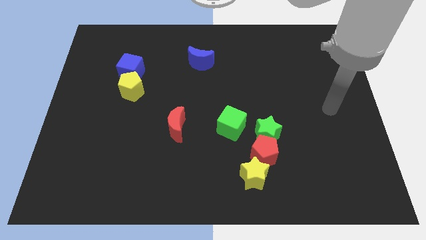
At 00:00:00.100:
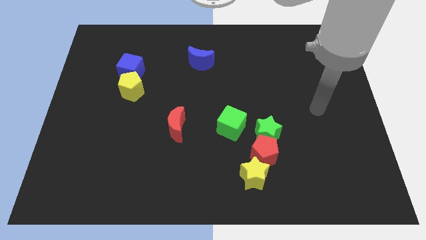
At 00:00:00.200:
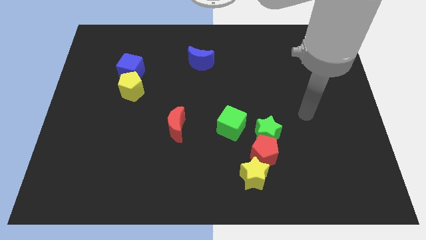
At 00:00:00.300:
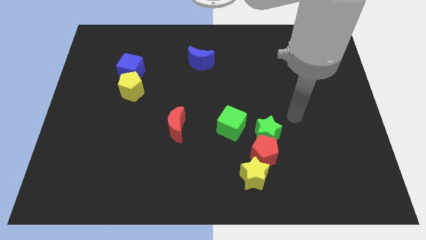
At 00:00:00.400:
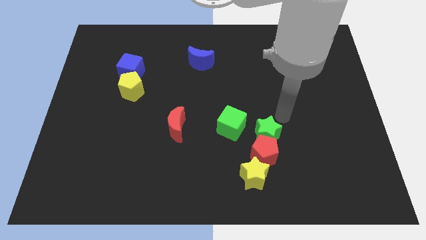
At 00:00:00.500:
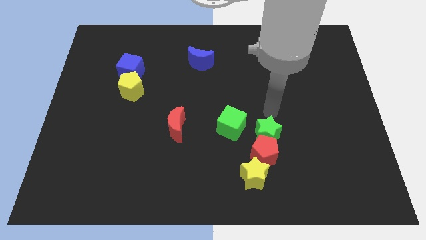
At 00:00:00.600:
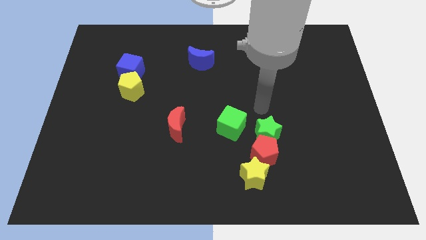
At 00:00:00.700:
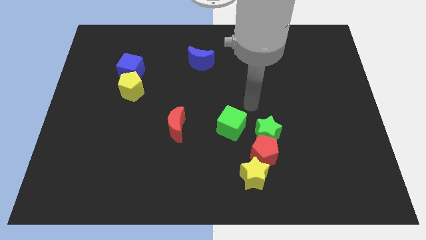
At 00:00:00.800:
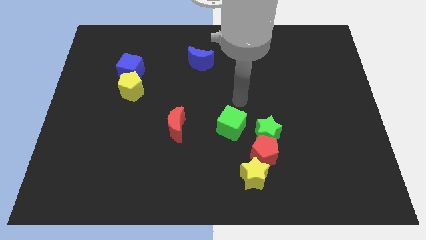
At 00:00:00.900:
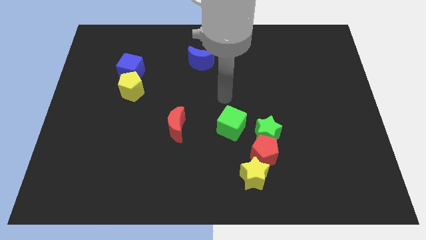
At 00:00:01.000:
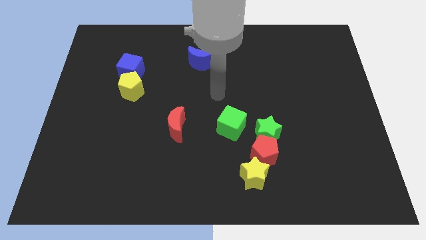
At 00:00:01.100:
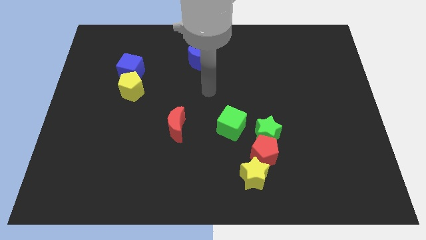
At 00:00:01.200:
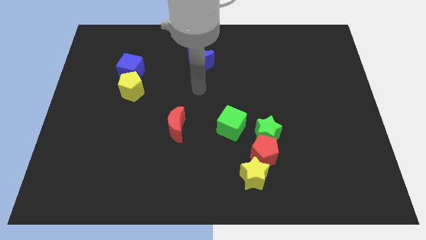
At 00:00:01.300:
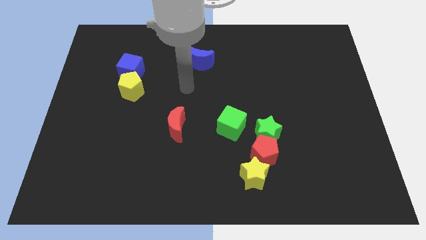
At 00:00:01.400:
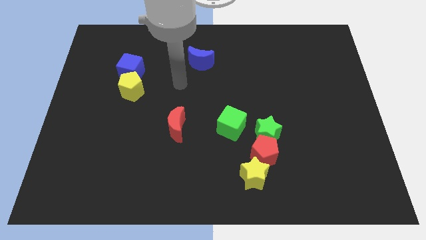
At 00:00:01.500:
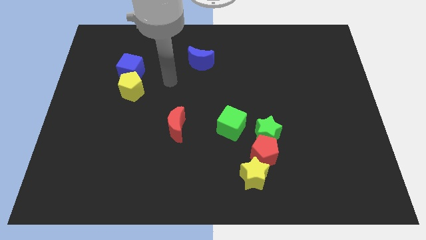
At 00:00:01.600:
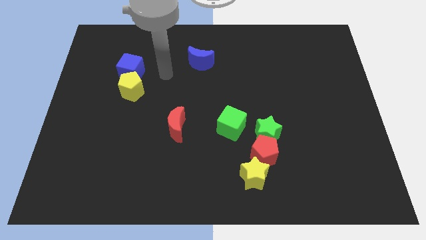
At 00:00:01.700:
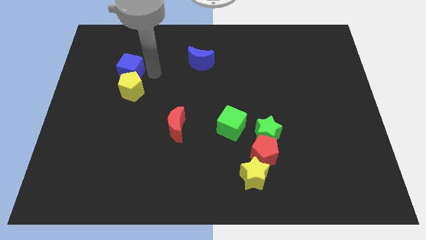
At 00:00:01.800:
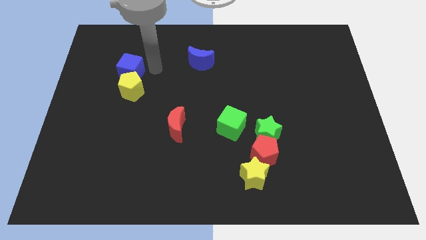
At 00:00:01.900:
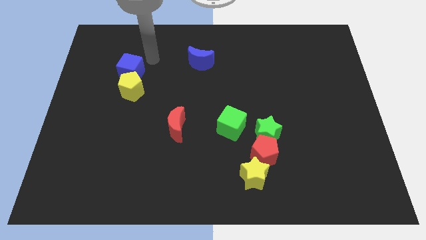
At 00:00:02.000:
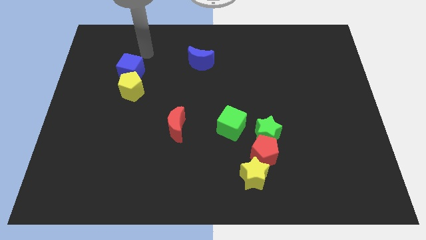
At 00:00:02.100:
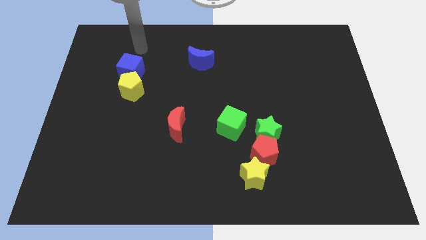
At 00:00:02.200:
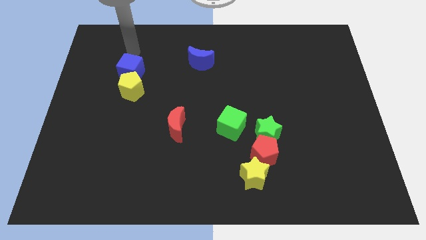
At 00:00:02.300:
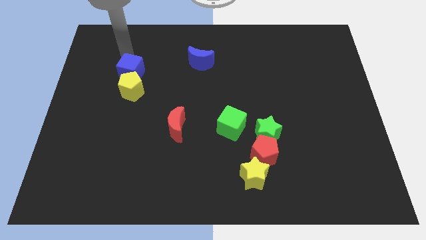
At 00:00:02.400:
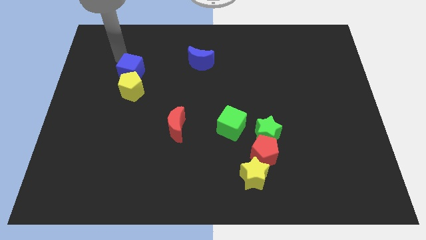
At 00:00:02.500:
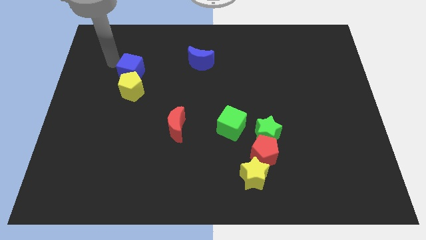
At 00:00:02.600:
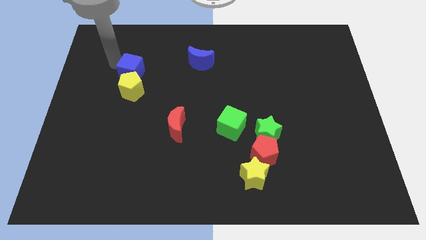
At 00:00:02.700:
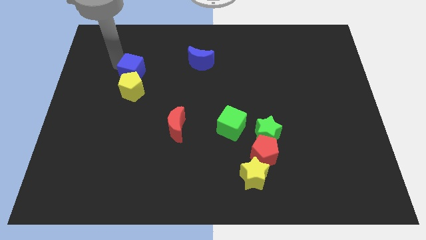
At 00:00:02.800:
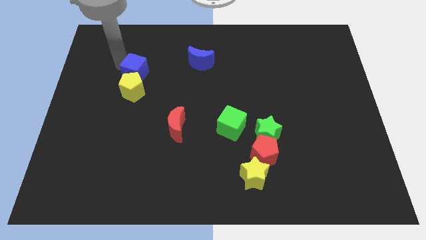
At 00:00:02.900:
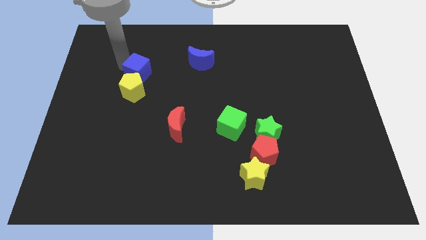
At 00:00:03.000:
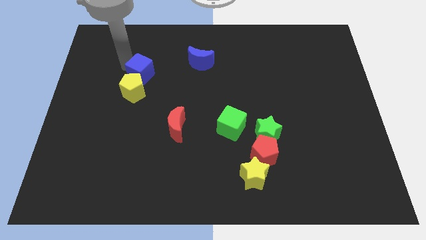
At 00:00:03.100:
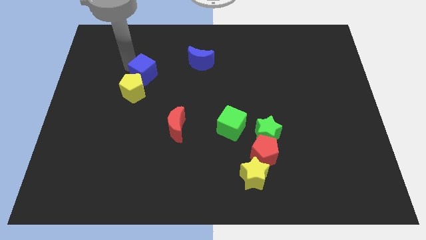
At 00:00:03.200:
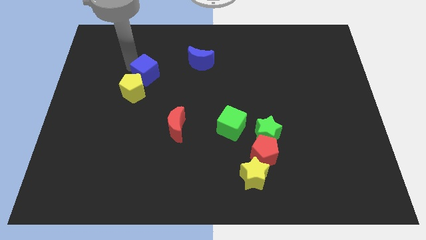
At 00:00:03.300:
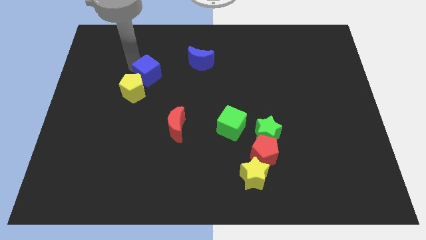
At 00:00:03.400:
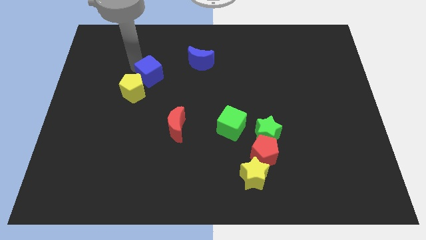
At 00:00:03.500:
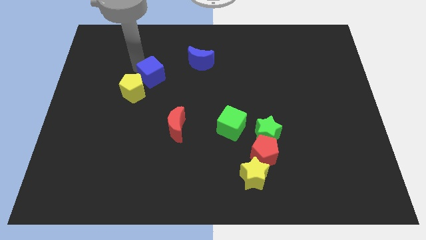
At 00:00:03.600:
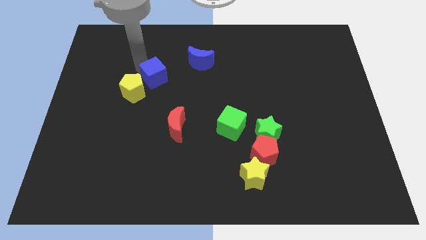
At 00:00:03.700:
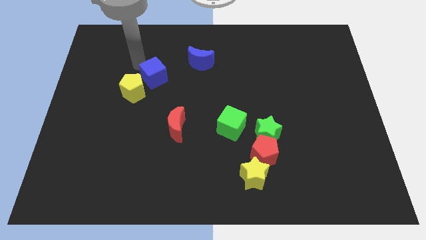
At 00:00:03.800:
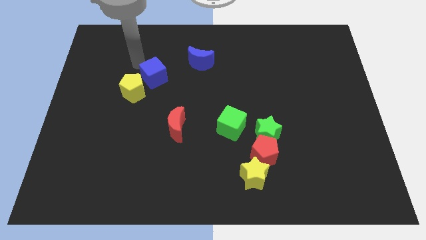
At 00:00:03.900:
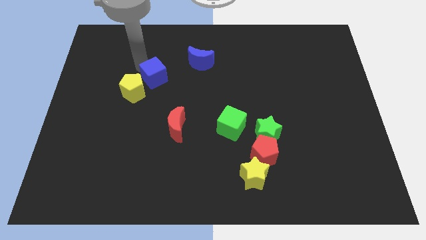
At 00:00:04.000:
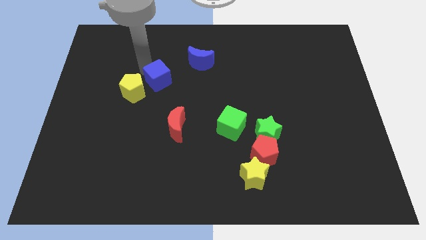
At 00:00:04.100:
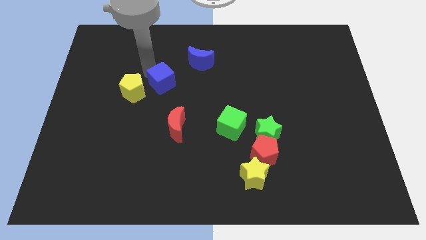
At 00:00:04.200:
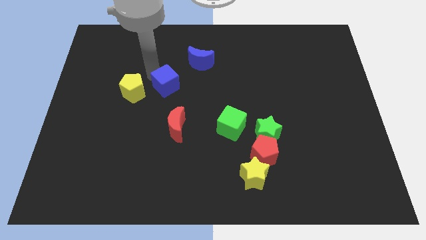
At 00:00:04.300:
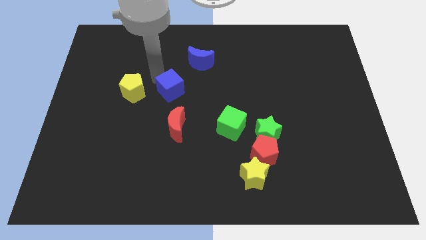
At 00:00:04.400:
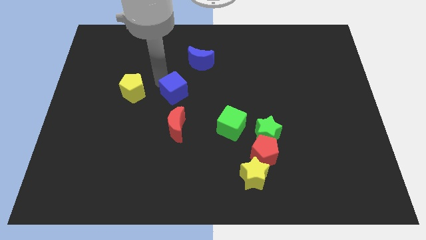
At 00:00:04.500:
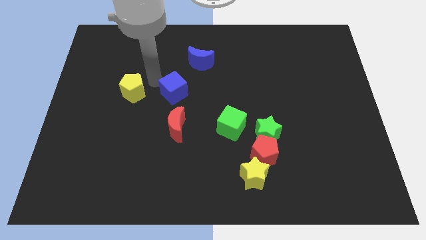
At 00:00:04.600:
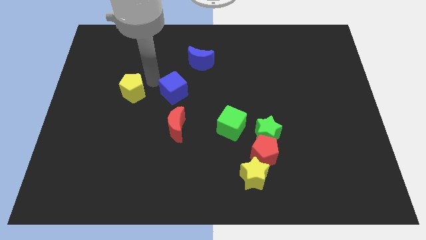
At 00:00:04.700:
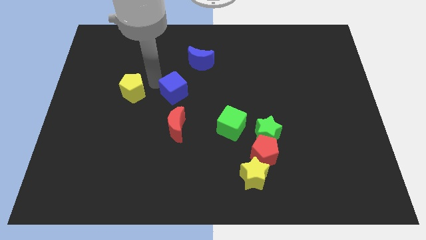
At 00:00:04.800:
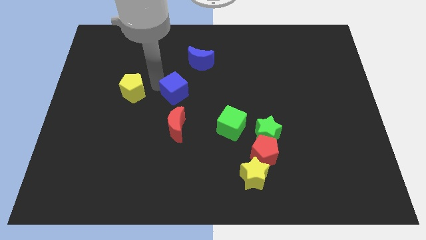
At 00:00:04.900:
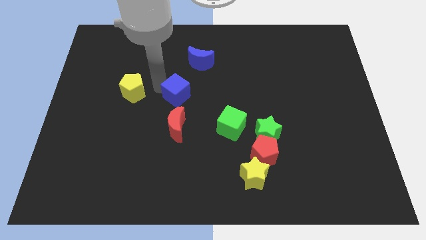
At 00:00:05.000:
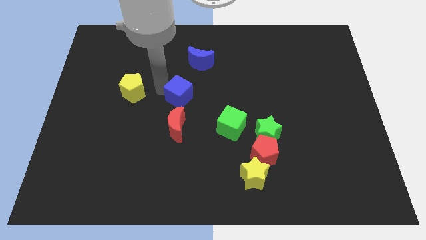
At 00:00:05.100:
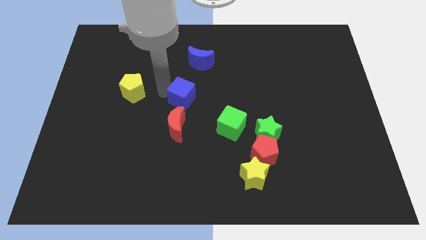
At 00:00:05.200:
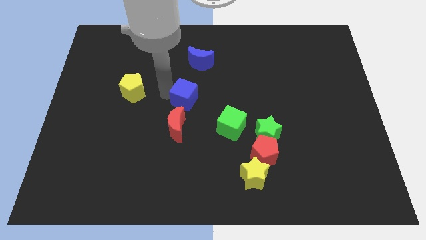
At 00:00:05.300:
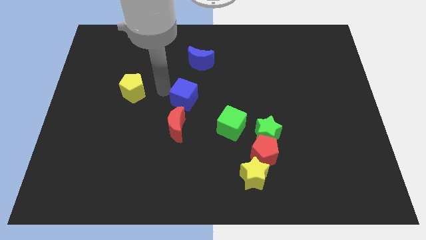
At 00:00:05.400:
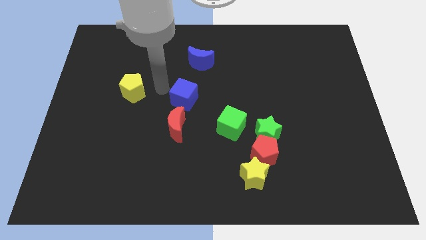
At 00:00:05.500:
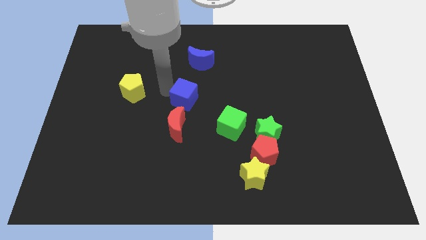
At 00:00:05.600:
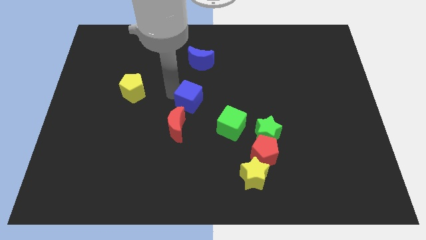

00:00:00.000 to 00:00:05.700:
push the blue cube to the top left of the green cube

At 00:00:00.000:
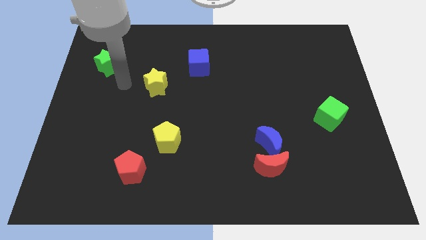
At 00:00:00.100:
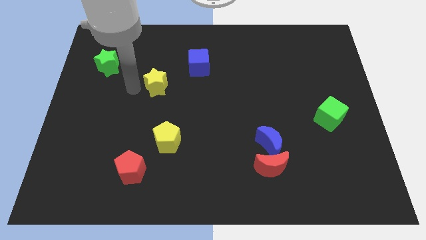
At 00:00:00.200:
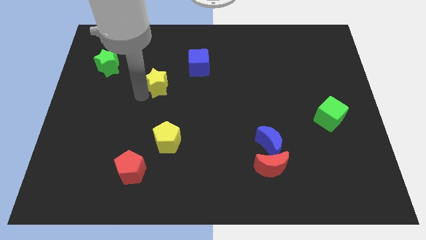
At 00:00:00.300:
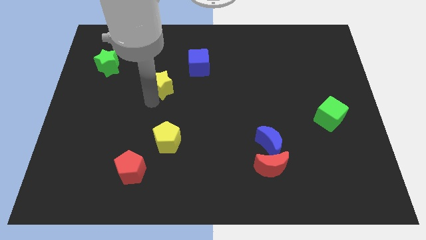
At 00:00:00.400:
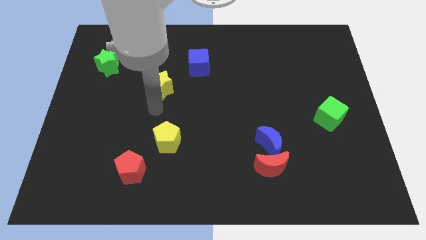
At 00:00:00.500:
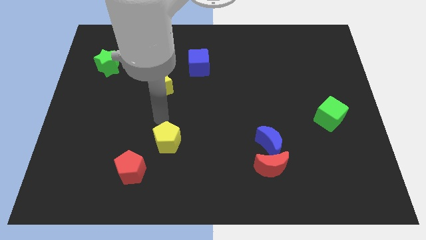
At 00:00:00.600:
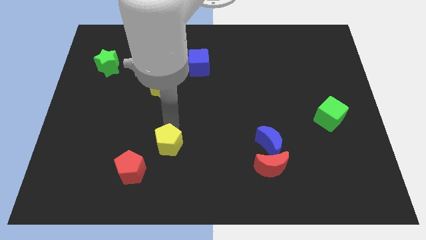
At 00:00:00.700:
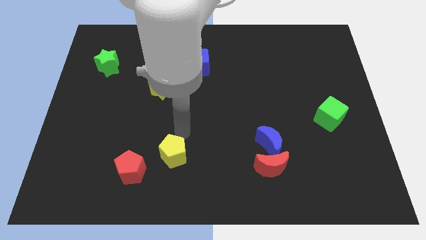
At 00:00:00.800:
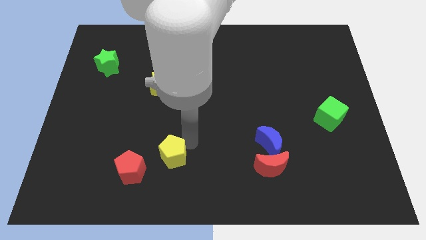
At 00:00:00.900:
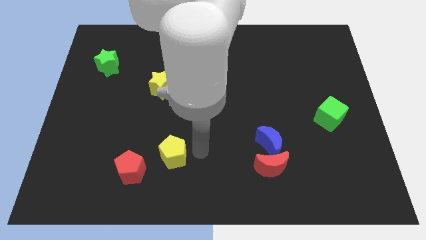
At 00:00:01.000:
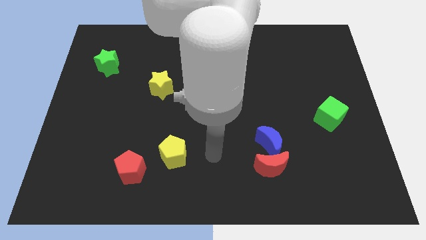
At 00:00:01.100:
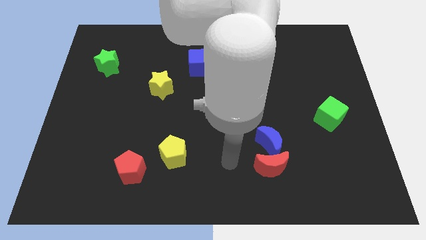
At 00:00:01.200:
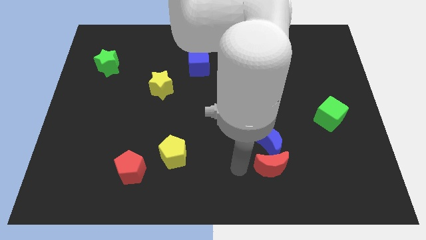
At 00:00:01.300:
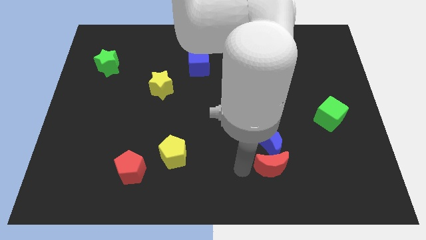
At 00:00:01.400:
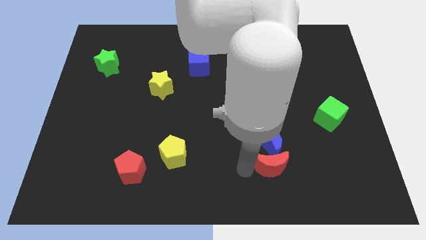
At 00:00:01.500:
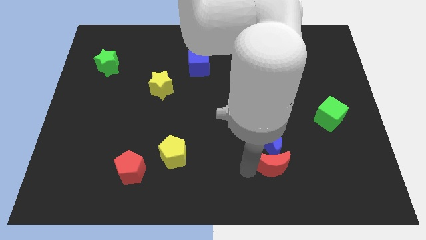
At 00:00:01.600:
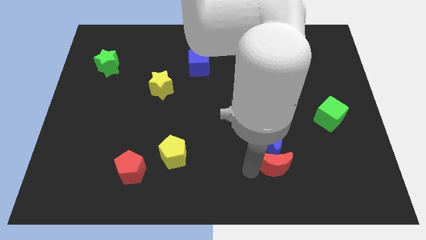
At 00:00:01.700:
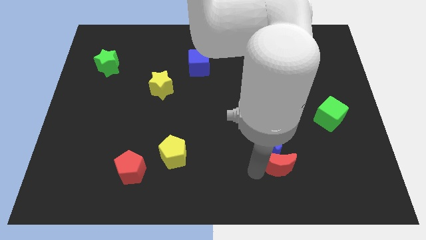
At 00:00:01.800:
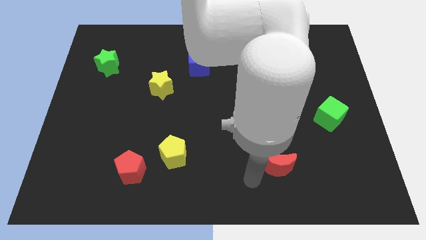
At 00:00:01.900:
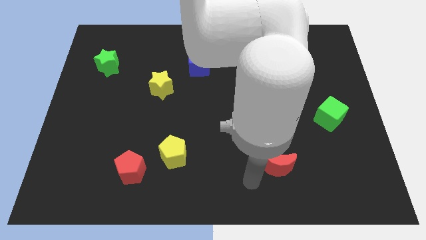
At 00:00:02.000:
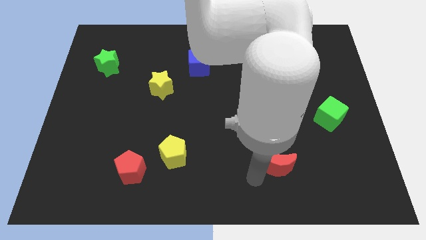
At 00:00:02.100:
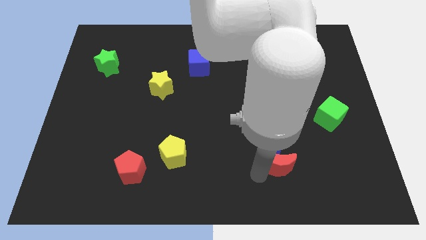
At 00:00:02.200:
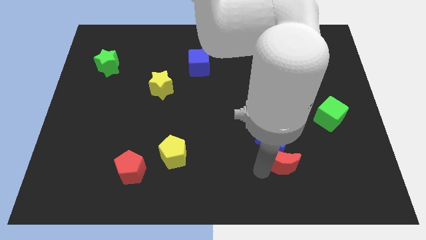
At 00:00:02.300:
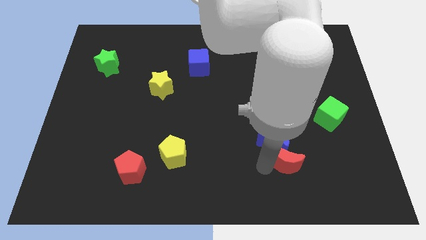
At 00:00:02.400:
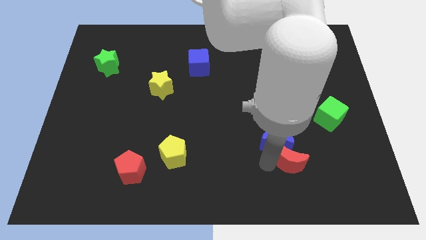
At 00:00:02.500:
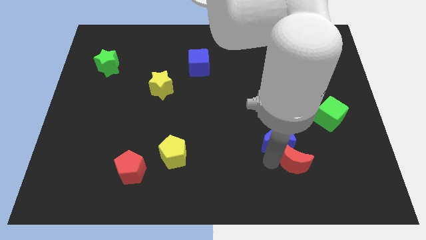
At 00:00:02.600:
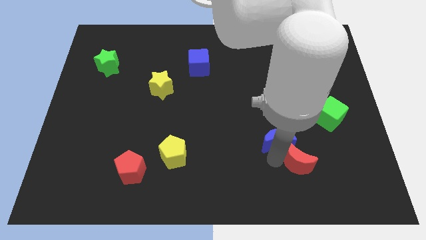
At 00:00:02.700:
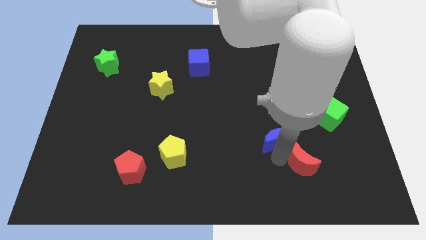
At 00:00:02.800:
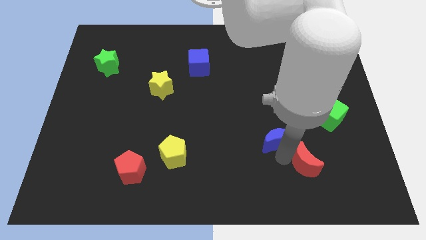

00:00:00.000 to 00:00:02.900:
move the red moon right of the blue moon
